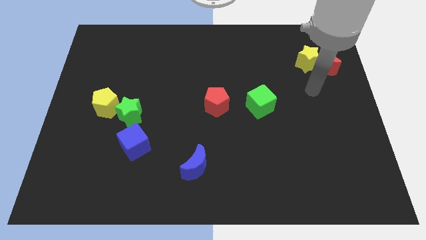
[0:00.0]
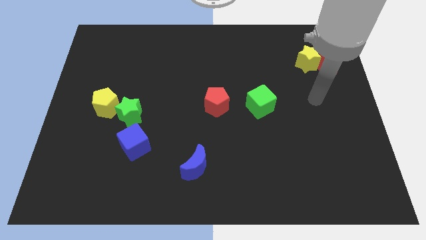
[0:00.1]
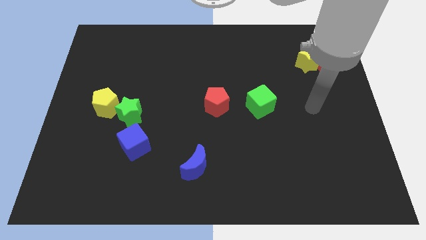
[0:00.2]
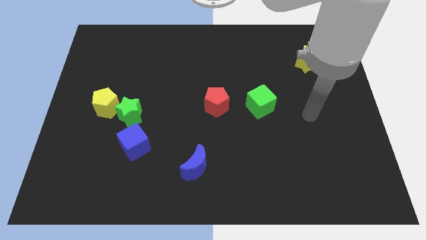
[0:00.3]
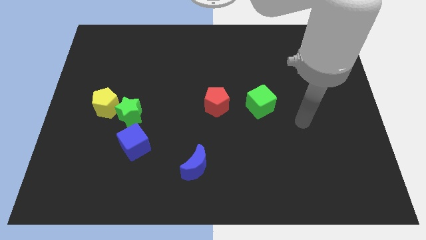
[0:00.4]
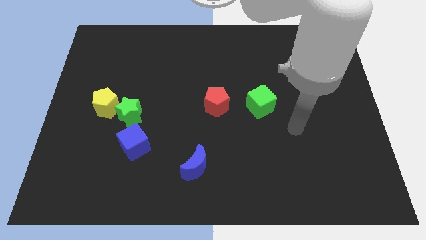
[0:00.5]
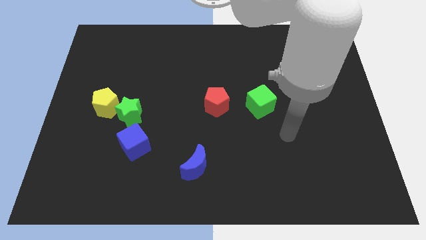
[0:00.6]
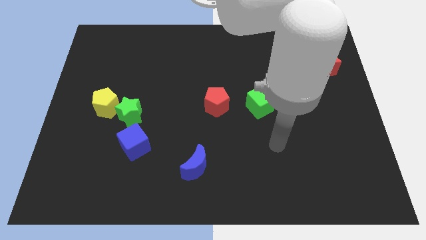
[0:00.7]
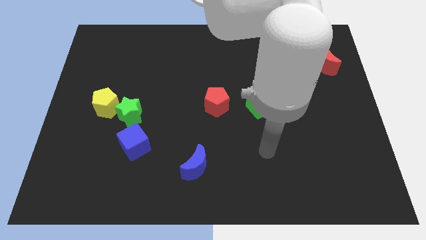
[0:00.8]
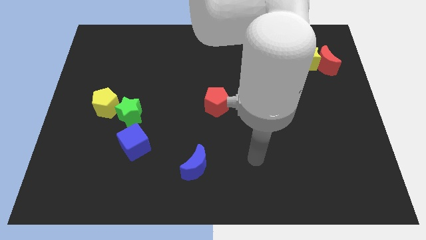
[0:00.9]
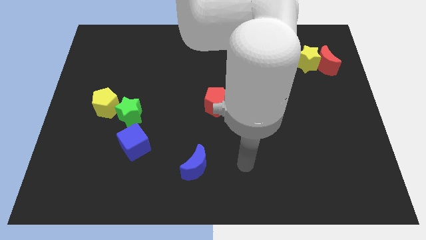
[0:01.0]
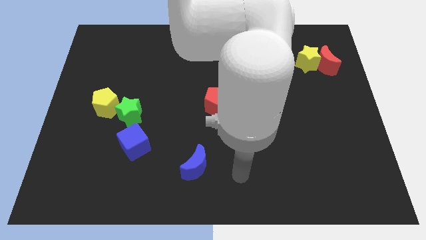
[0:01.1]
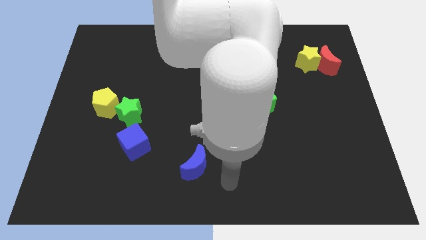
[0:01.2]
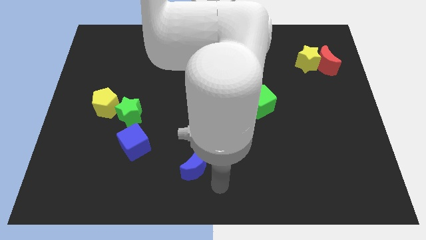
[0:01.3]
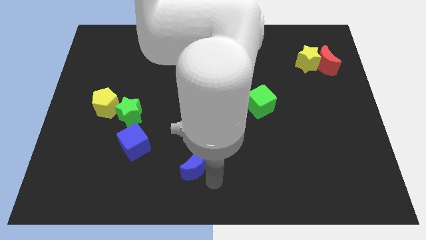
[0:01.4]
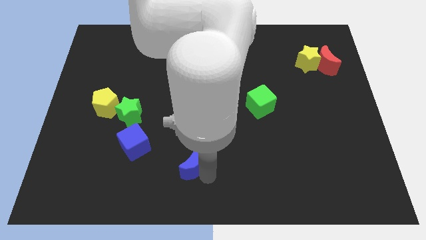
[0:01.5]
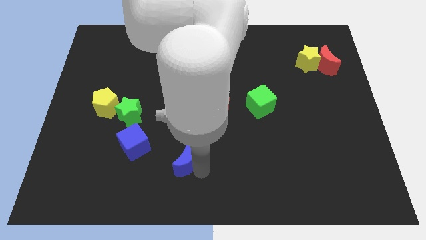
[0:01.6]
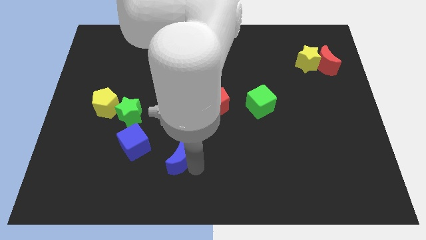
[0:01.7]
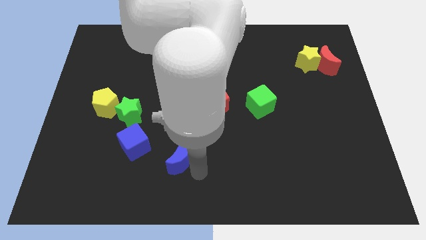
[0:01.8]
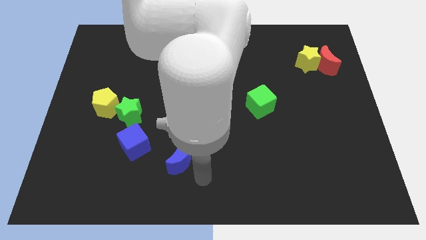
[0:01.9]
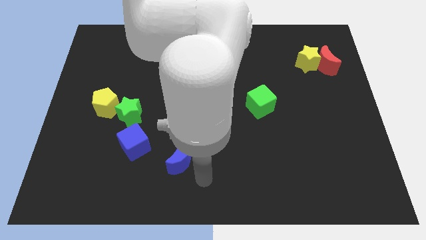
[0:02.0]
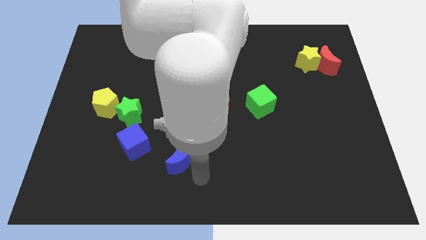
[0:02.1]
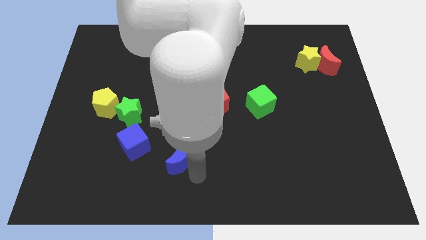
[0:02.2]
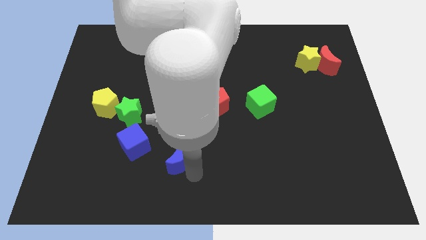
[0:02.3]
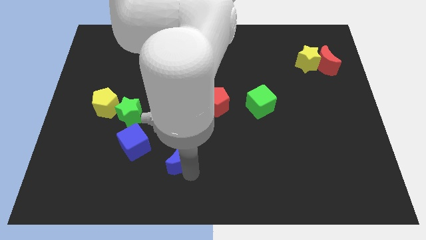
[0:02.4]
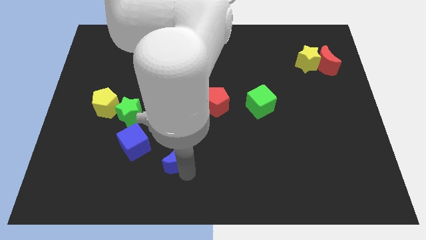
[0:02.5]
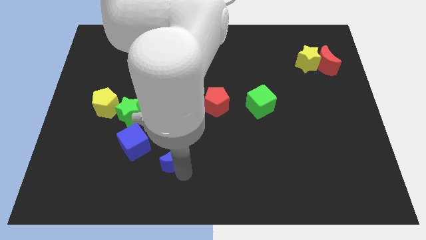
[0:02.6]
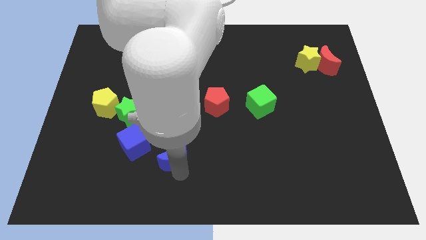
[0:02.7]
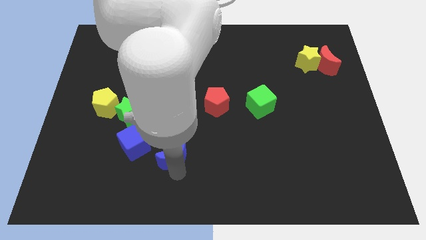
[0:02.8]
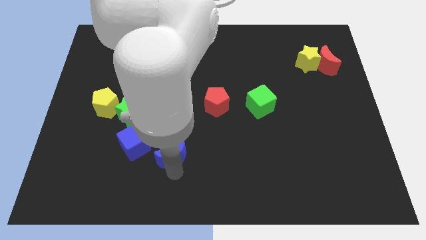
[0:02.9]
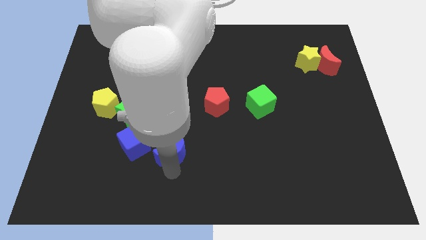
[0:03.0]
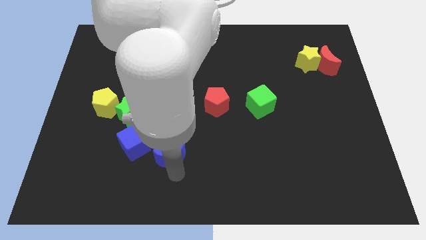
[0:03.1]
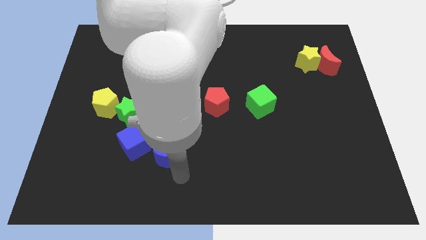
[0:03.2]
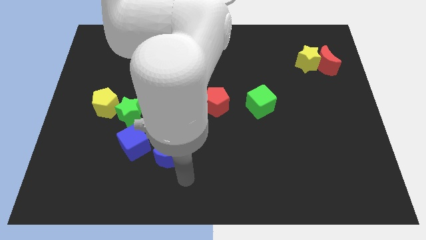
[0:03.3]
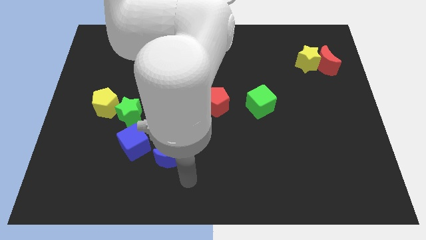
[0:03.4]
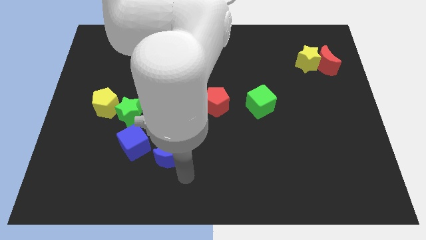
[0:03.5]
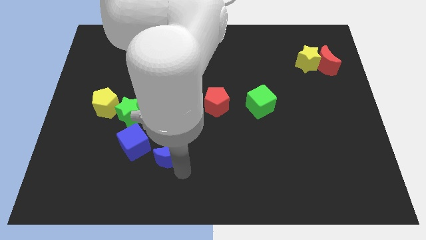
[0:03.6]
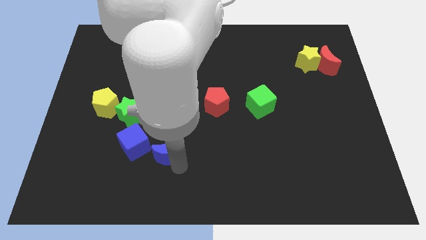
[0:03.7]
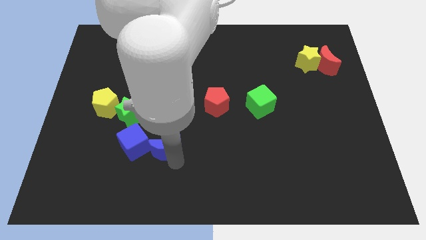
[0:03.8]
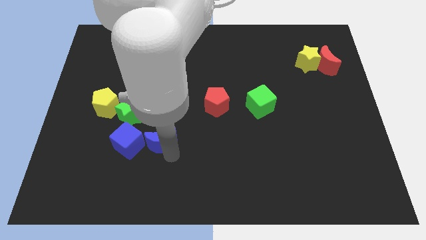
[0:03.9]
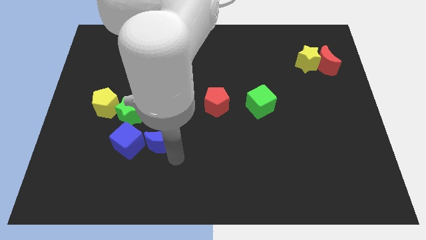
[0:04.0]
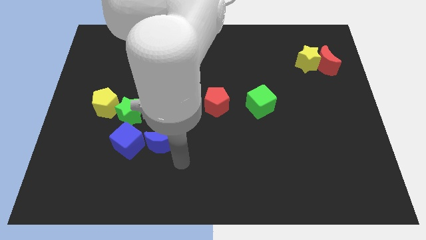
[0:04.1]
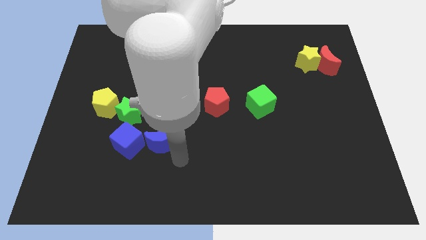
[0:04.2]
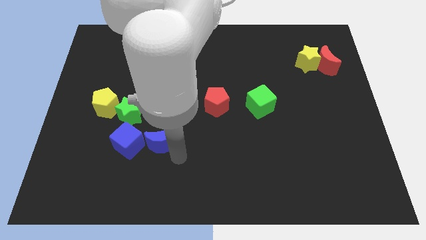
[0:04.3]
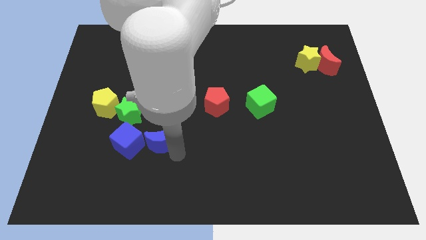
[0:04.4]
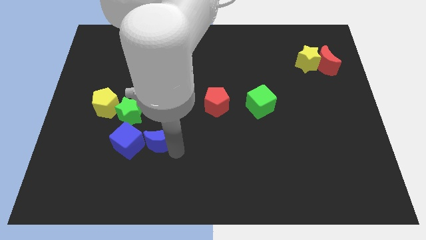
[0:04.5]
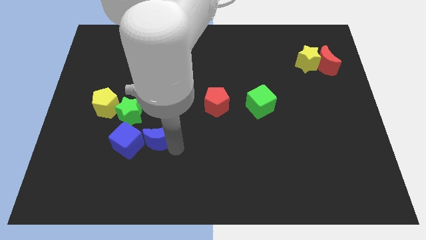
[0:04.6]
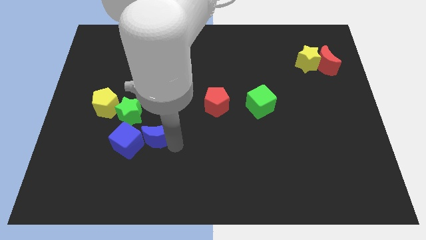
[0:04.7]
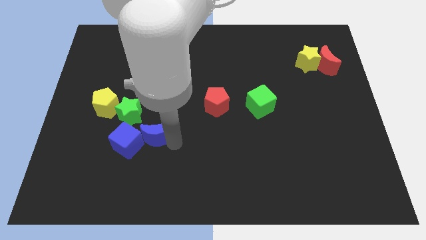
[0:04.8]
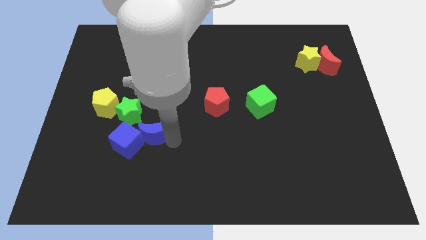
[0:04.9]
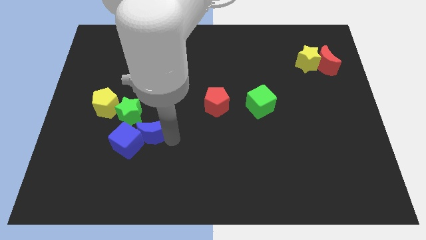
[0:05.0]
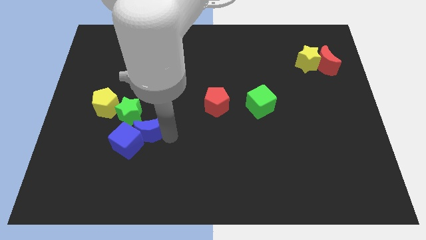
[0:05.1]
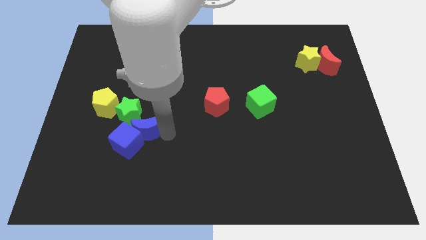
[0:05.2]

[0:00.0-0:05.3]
push the blue moon next to the green star

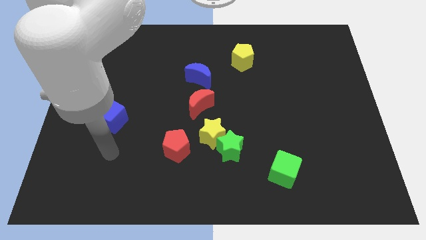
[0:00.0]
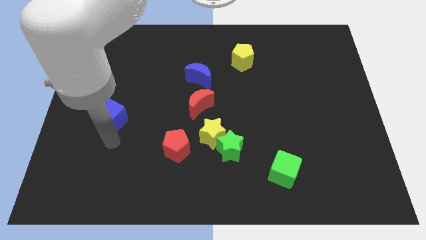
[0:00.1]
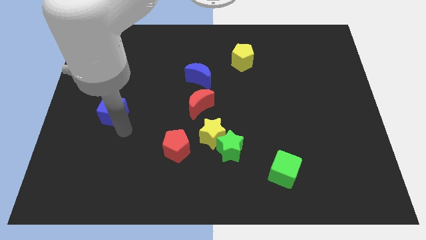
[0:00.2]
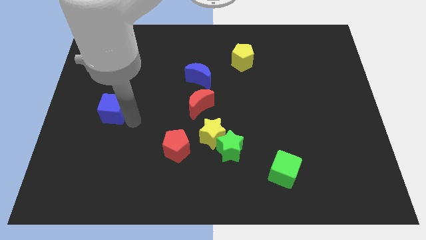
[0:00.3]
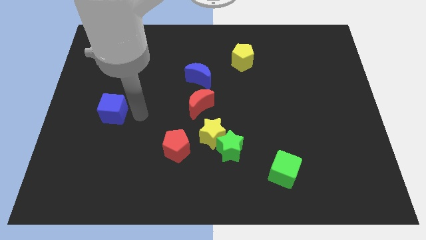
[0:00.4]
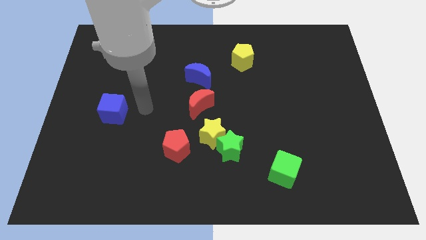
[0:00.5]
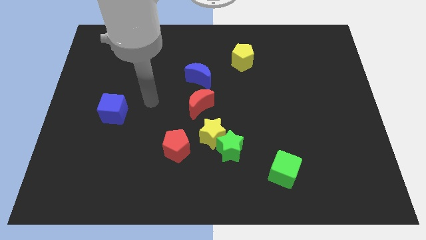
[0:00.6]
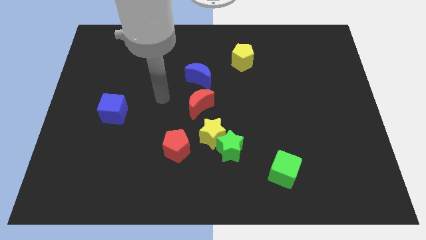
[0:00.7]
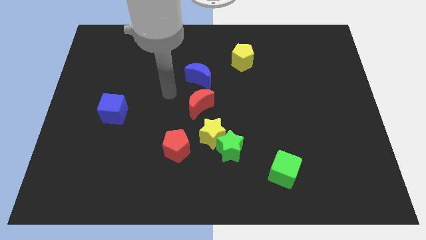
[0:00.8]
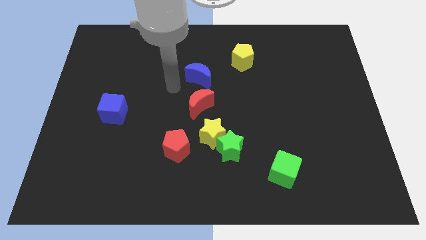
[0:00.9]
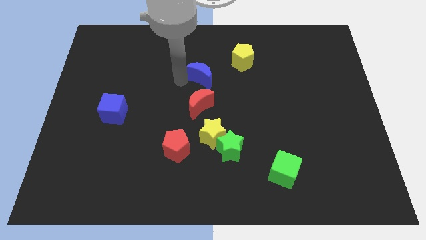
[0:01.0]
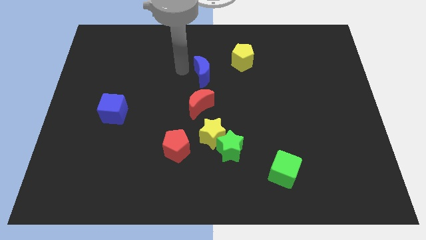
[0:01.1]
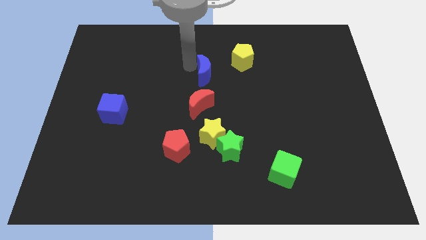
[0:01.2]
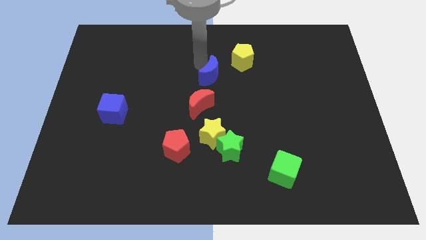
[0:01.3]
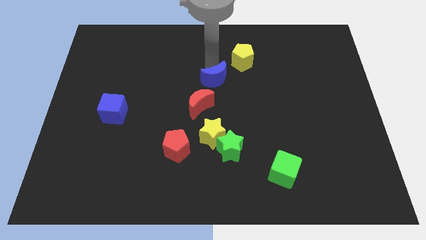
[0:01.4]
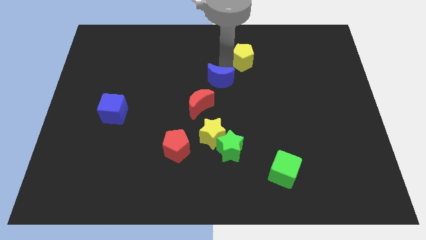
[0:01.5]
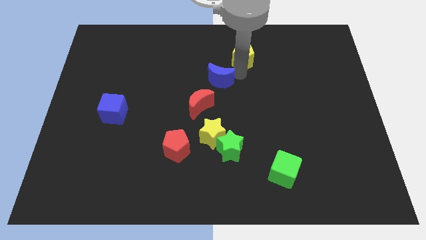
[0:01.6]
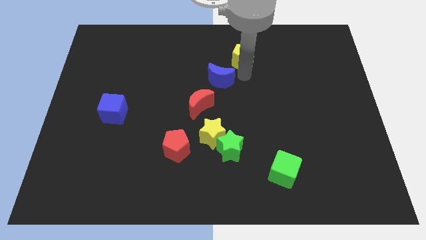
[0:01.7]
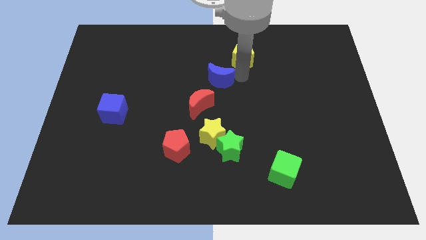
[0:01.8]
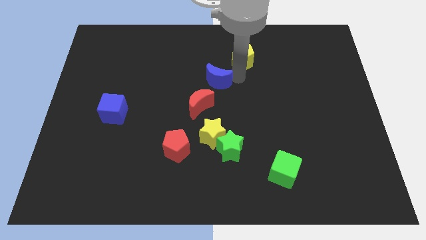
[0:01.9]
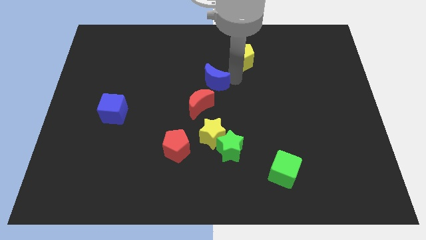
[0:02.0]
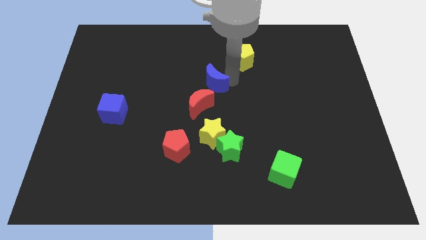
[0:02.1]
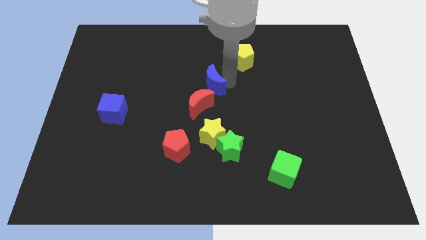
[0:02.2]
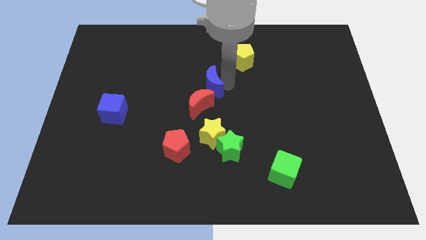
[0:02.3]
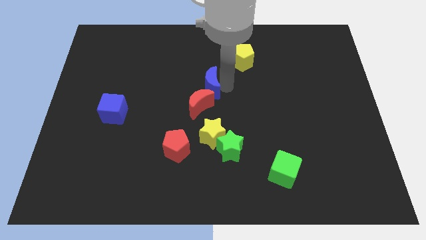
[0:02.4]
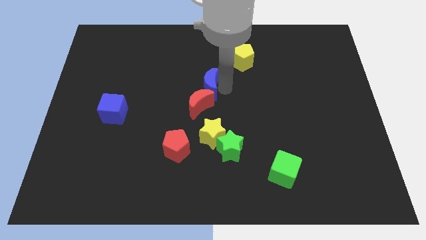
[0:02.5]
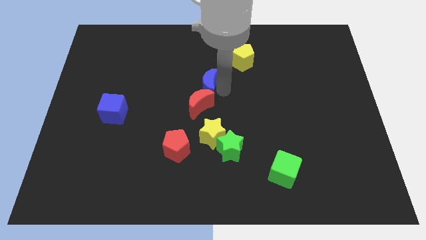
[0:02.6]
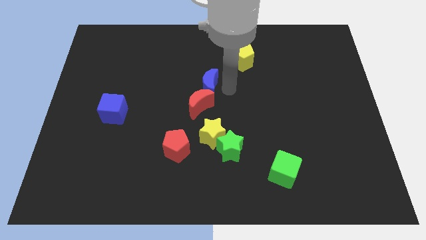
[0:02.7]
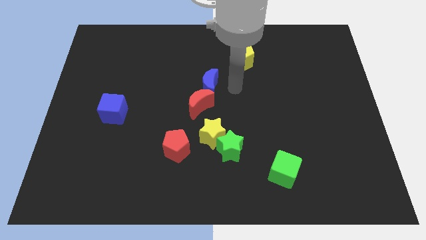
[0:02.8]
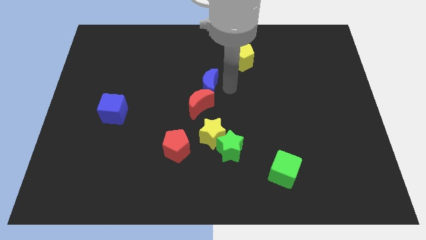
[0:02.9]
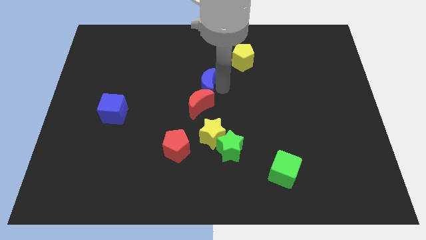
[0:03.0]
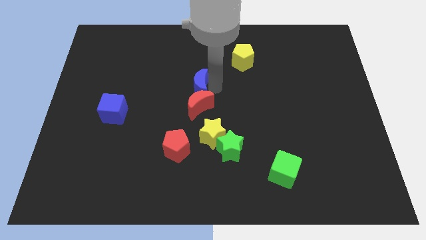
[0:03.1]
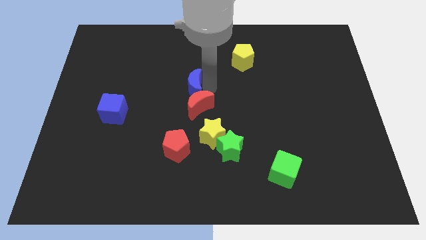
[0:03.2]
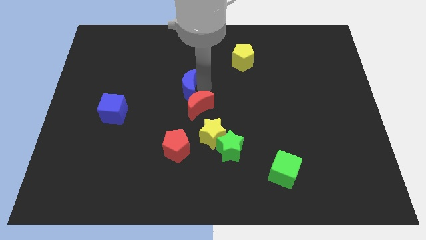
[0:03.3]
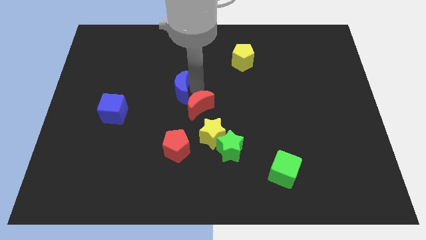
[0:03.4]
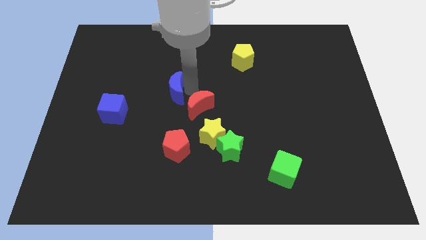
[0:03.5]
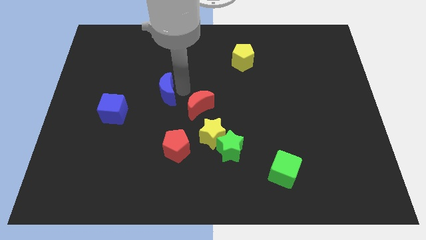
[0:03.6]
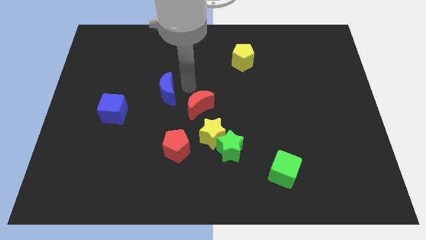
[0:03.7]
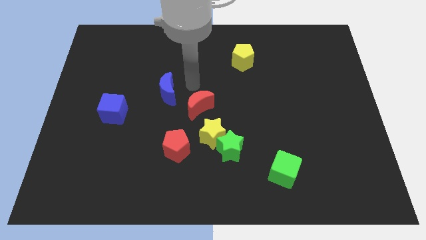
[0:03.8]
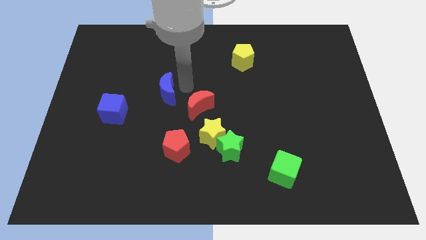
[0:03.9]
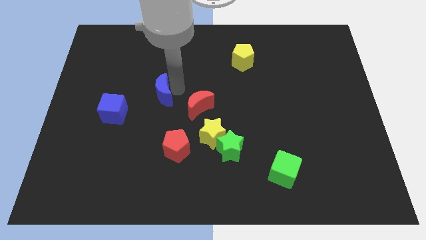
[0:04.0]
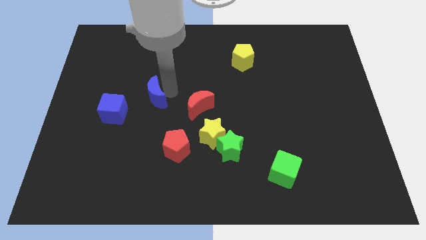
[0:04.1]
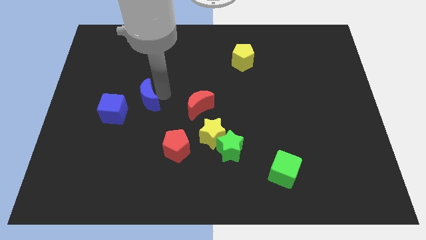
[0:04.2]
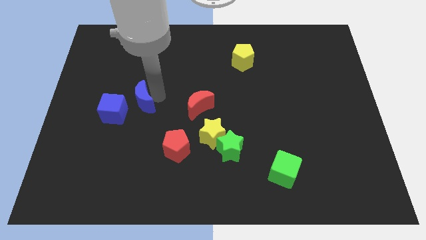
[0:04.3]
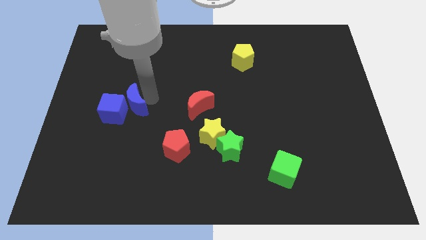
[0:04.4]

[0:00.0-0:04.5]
slide the blue moon to the blue cube
